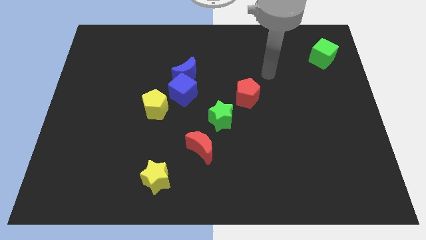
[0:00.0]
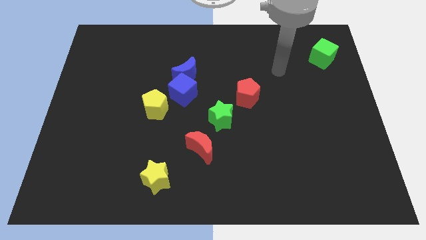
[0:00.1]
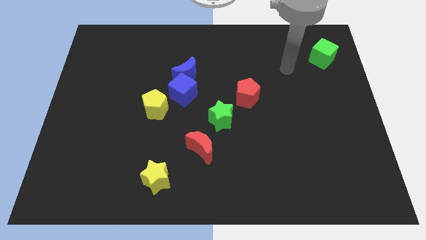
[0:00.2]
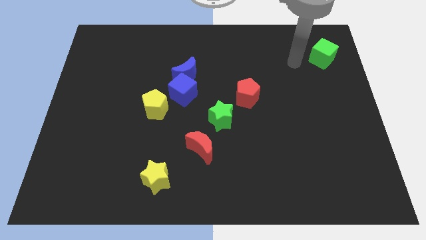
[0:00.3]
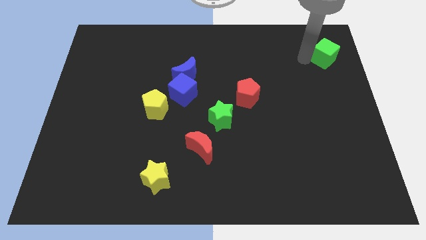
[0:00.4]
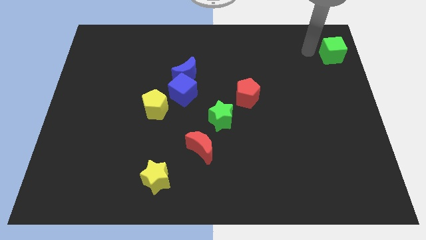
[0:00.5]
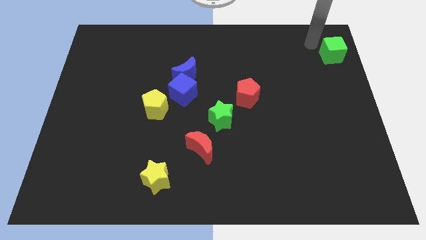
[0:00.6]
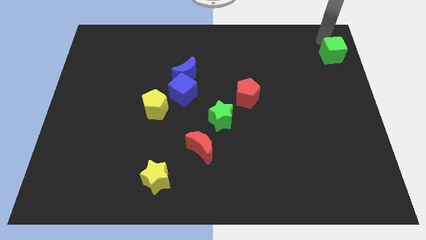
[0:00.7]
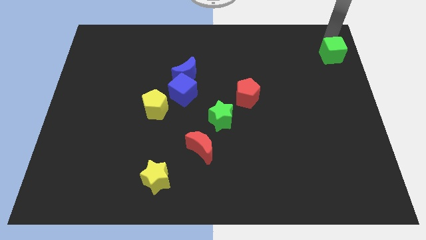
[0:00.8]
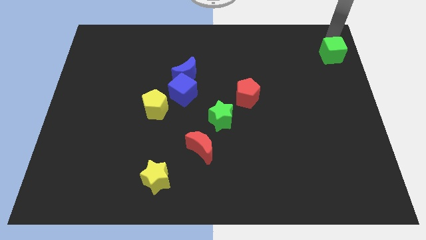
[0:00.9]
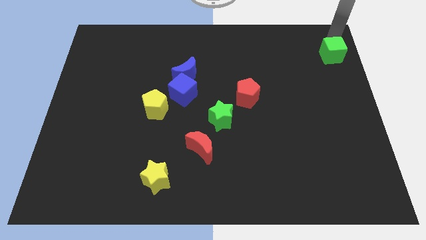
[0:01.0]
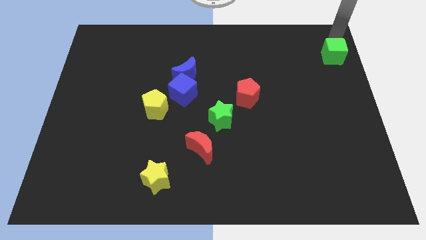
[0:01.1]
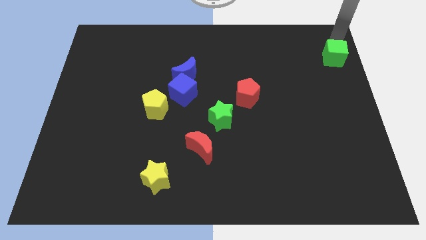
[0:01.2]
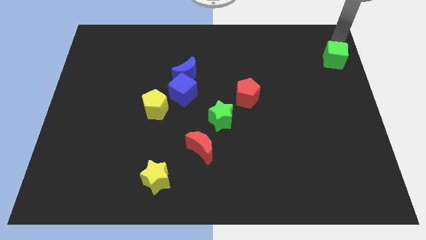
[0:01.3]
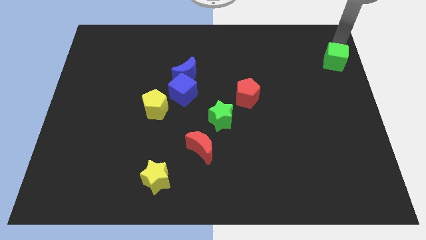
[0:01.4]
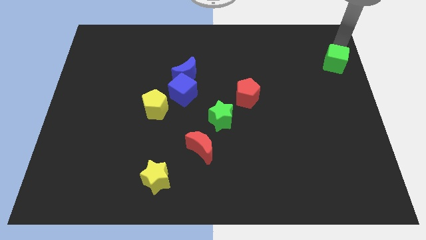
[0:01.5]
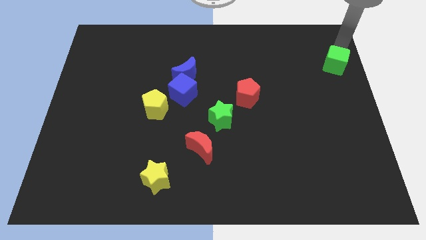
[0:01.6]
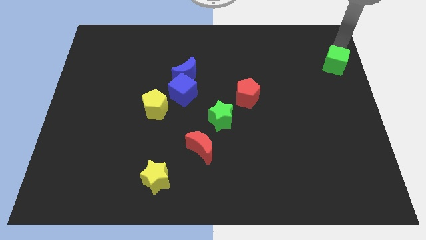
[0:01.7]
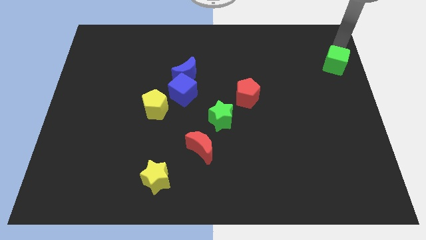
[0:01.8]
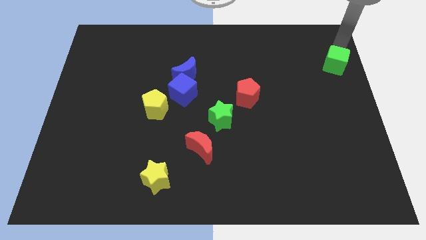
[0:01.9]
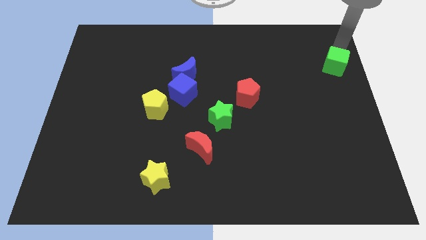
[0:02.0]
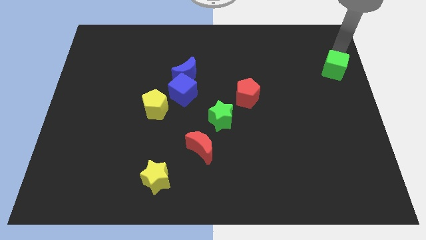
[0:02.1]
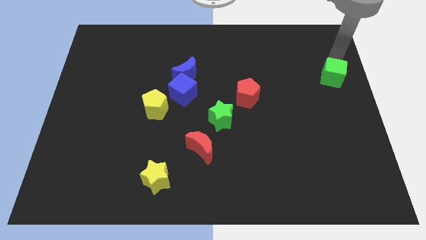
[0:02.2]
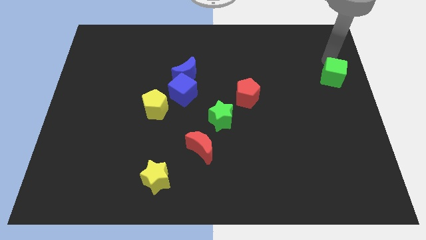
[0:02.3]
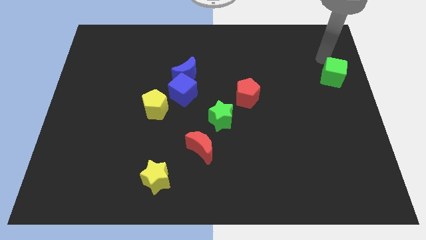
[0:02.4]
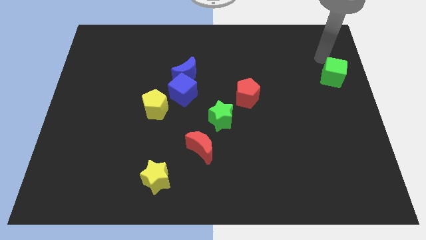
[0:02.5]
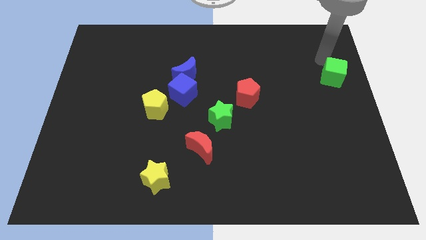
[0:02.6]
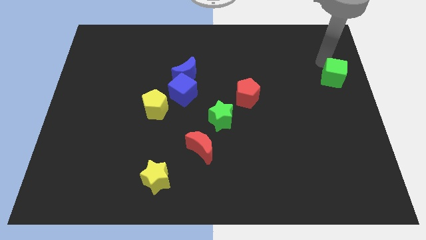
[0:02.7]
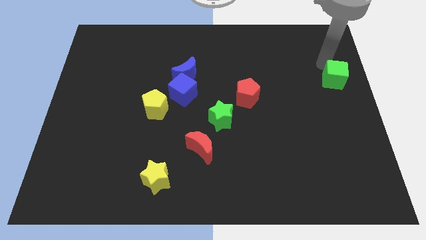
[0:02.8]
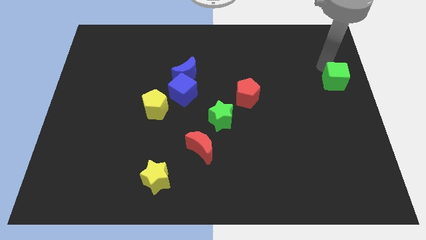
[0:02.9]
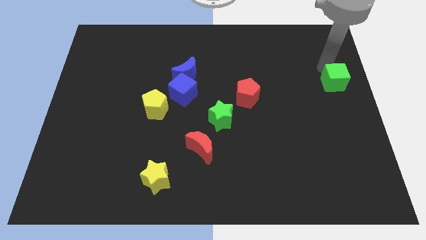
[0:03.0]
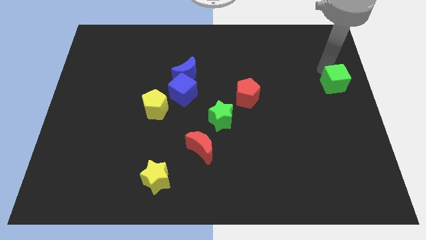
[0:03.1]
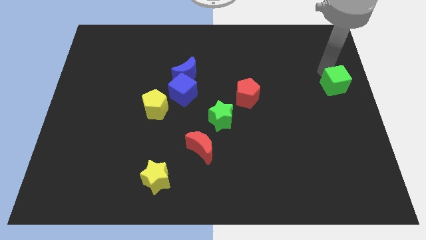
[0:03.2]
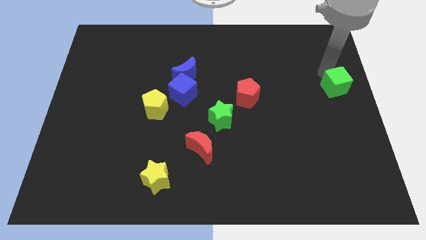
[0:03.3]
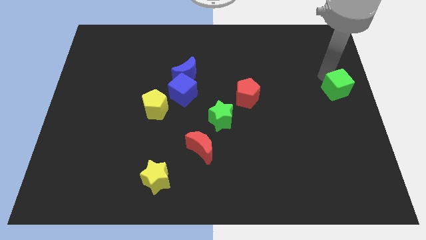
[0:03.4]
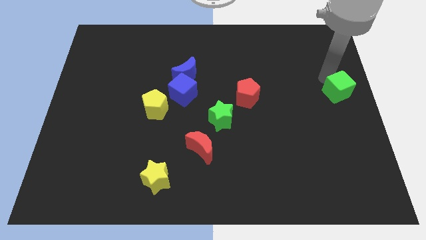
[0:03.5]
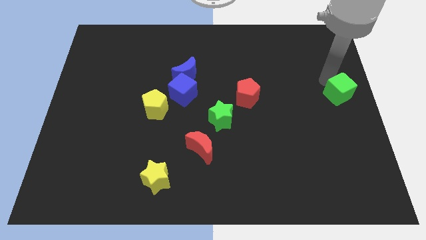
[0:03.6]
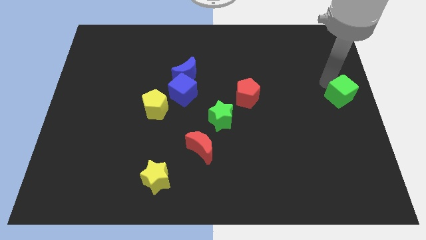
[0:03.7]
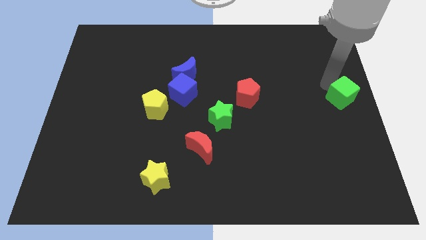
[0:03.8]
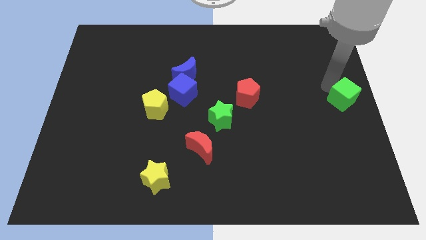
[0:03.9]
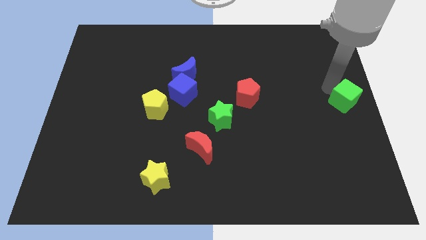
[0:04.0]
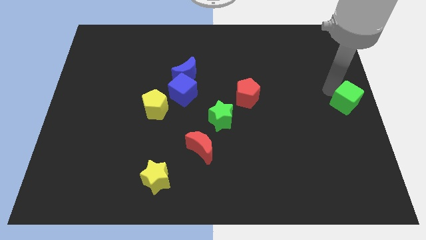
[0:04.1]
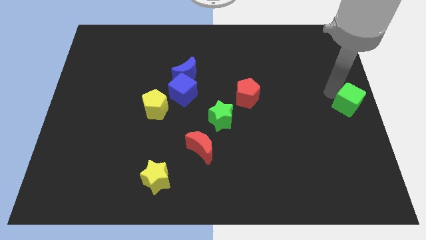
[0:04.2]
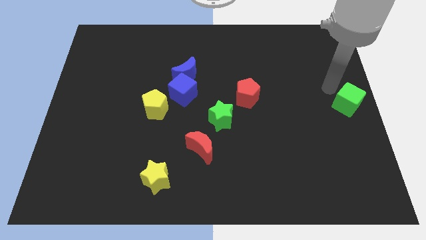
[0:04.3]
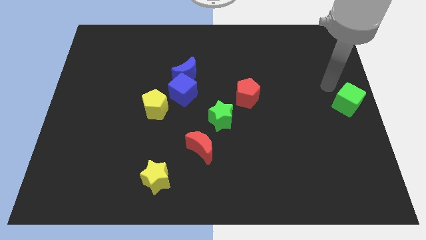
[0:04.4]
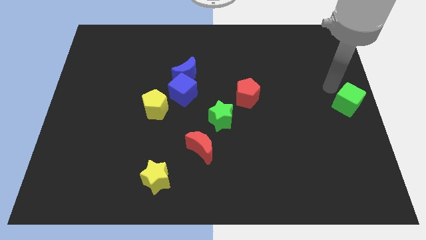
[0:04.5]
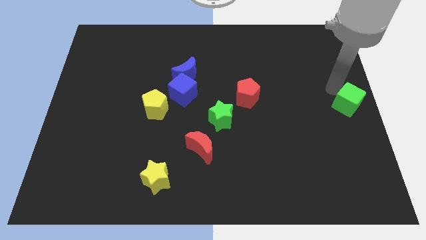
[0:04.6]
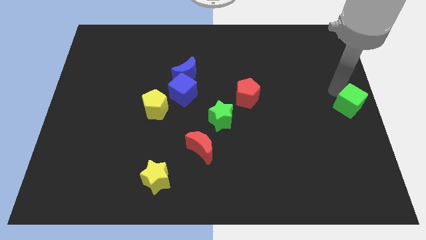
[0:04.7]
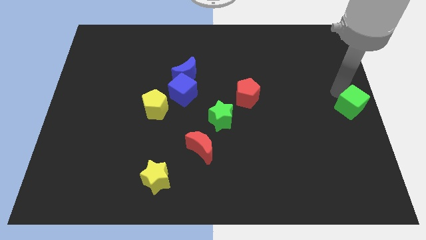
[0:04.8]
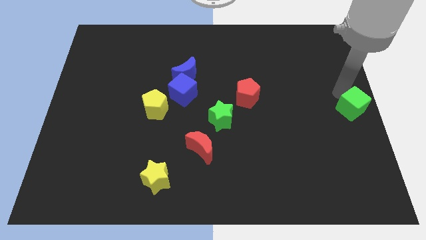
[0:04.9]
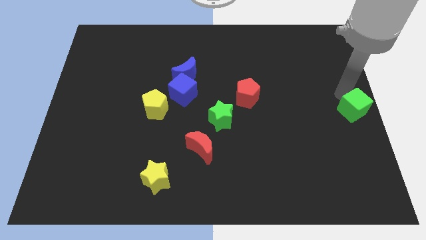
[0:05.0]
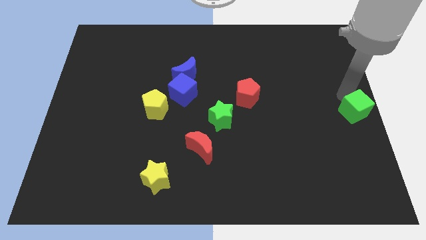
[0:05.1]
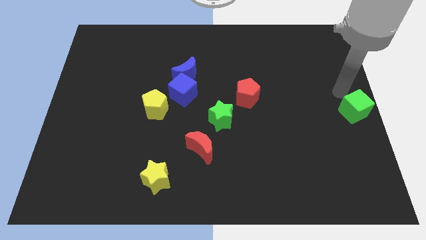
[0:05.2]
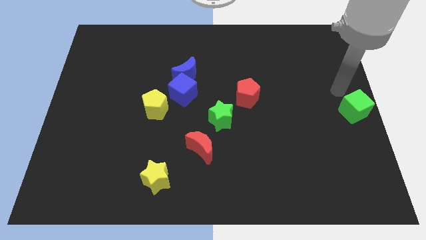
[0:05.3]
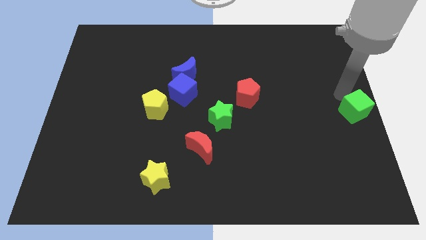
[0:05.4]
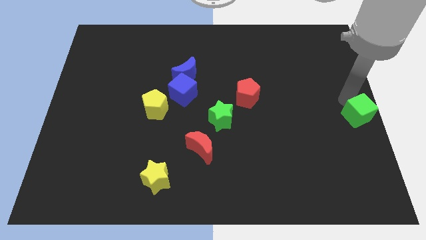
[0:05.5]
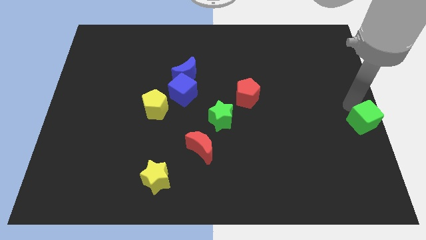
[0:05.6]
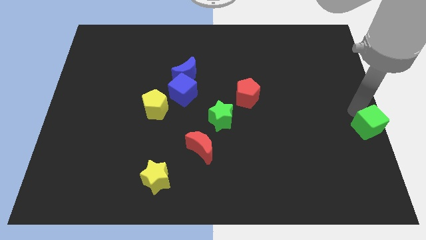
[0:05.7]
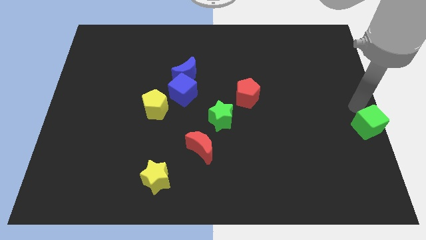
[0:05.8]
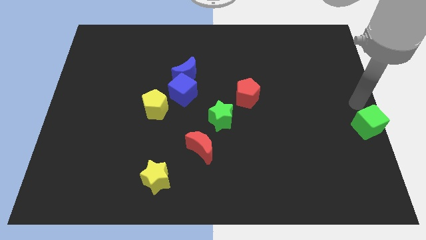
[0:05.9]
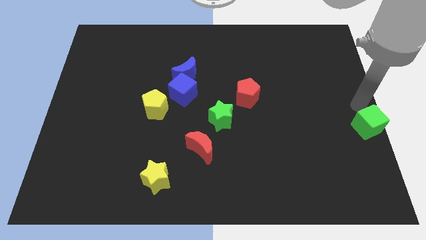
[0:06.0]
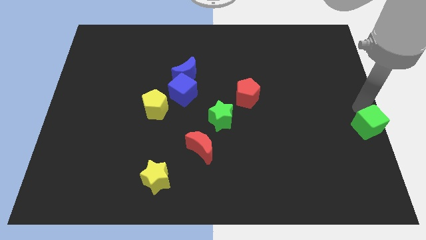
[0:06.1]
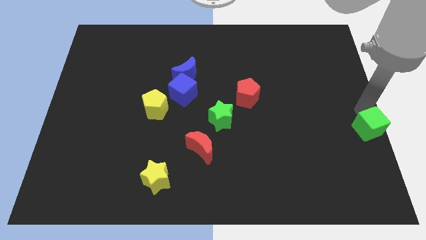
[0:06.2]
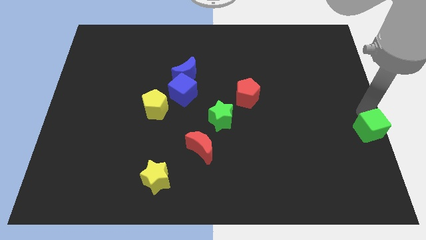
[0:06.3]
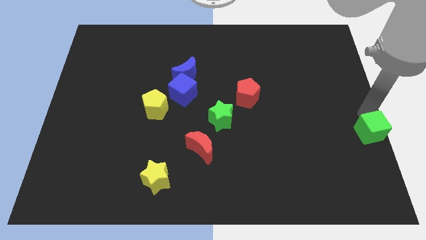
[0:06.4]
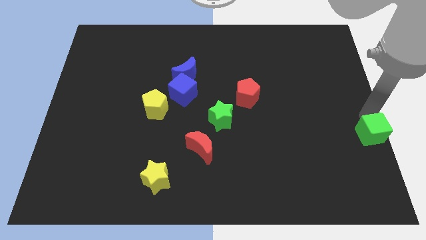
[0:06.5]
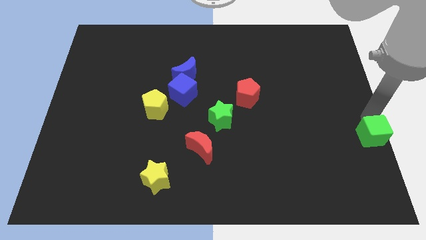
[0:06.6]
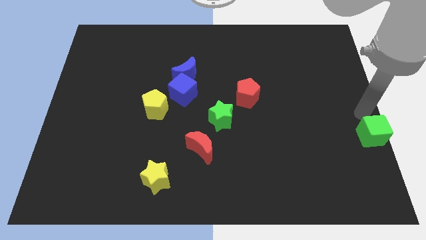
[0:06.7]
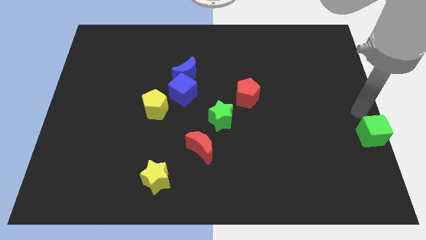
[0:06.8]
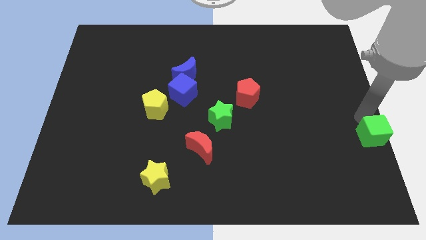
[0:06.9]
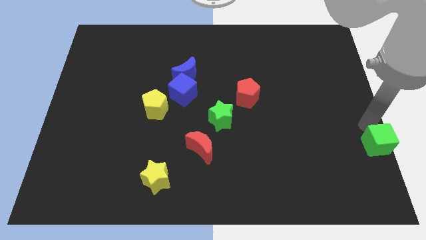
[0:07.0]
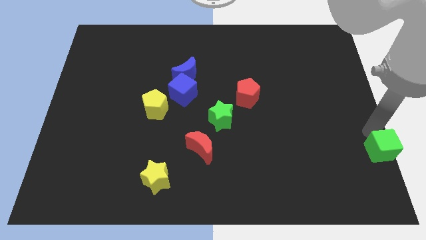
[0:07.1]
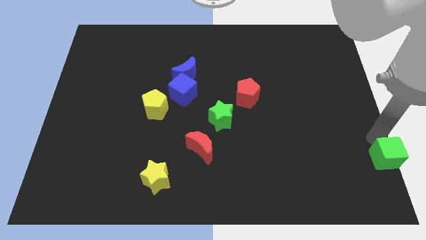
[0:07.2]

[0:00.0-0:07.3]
push the green cube to the lower right corner

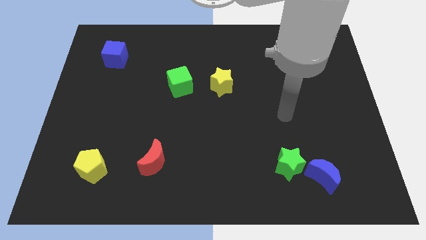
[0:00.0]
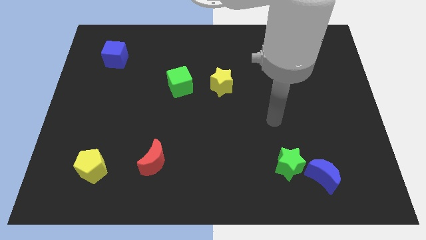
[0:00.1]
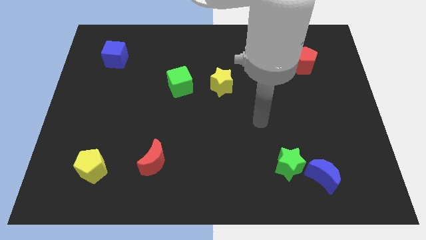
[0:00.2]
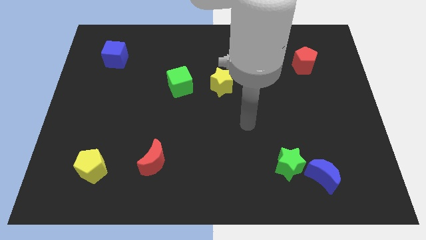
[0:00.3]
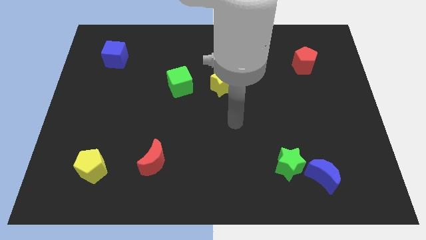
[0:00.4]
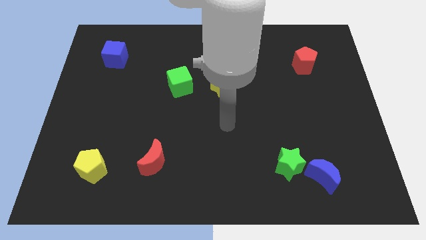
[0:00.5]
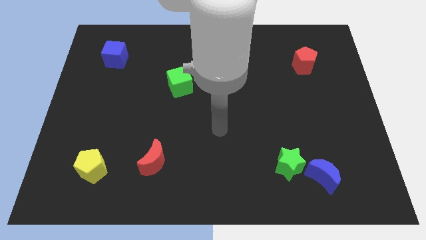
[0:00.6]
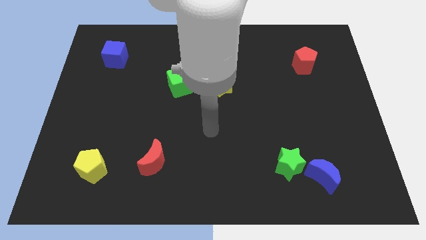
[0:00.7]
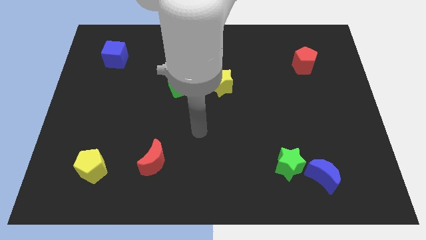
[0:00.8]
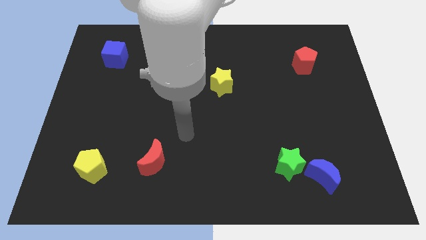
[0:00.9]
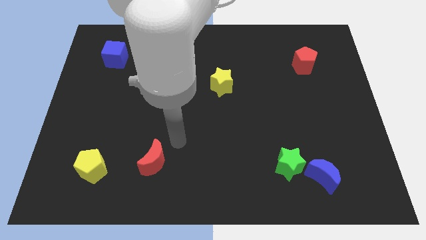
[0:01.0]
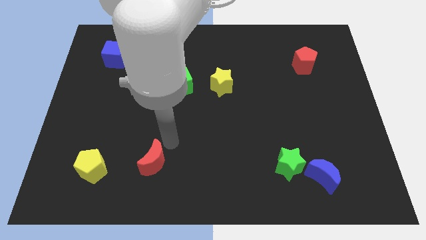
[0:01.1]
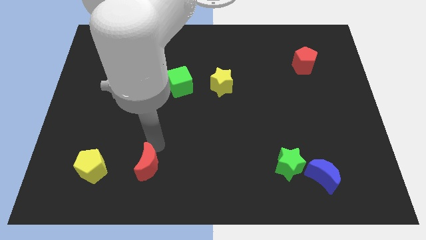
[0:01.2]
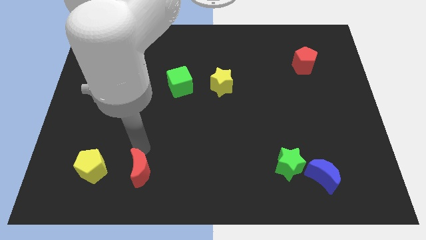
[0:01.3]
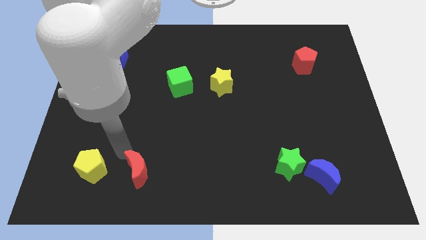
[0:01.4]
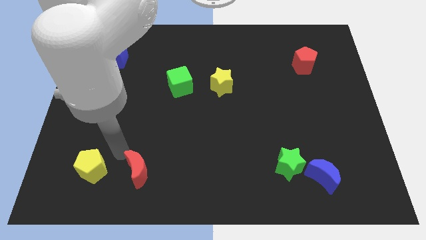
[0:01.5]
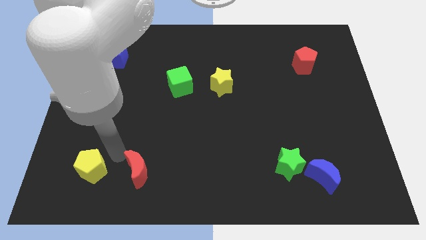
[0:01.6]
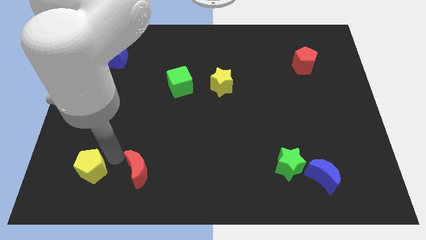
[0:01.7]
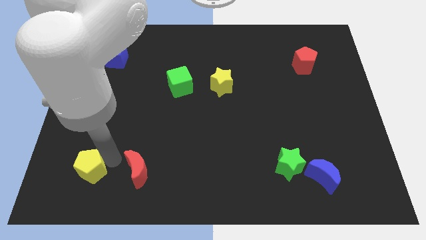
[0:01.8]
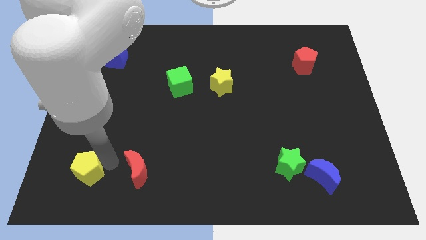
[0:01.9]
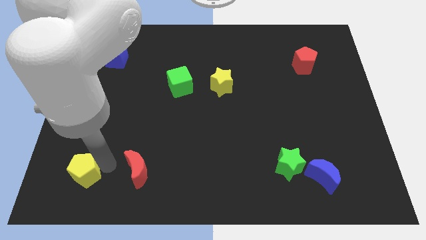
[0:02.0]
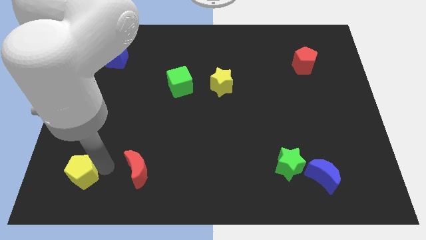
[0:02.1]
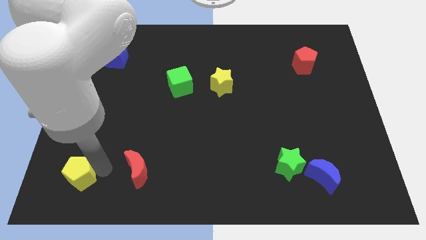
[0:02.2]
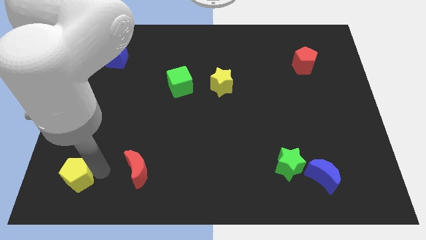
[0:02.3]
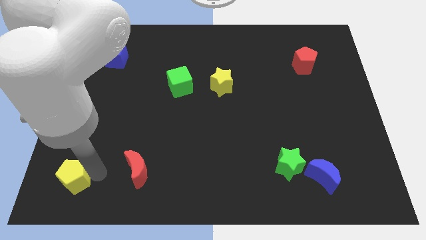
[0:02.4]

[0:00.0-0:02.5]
slide the yellow pentagon to the bottom left corner
